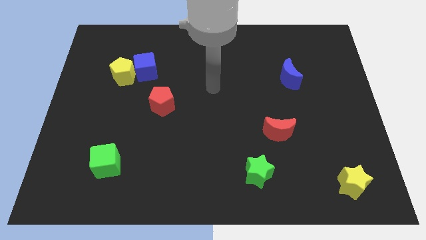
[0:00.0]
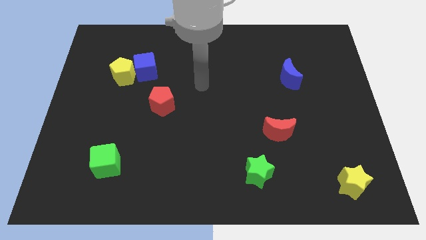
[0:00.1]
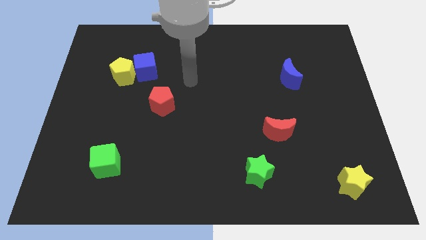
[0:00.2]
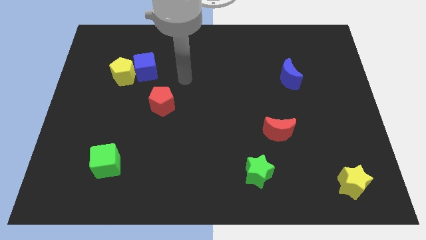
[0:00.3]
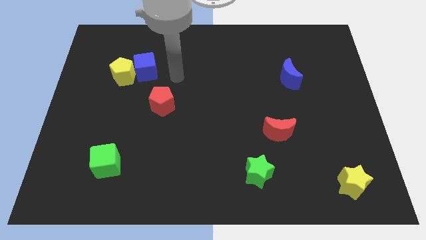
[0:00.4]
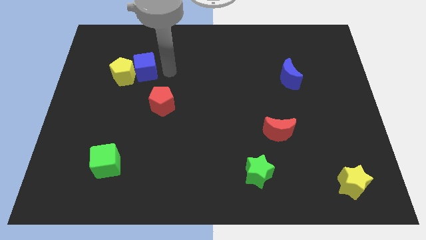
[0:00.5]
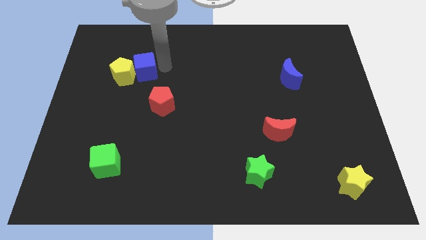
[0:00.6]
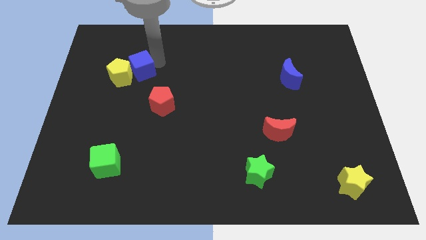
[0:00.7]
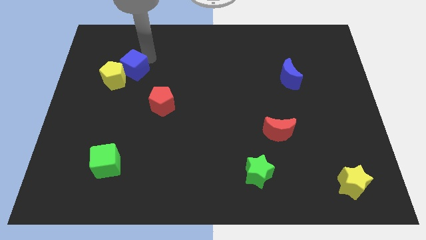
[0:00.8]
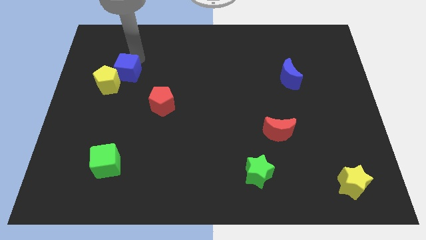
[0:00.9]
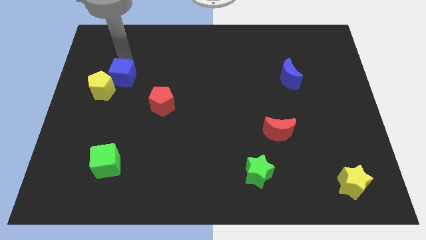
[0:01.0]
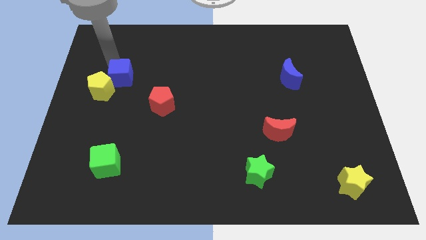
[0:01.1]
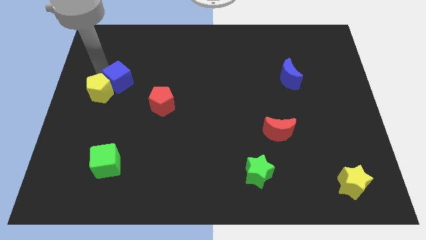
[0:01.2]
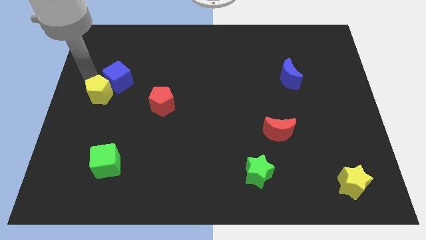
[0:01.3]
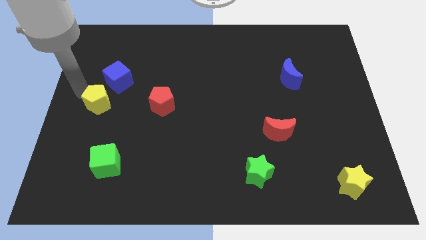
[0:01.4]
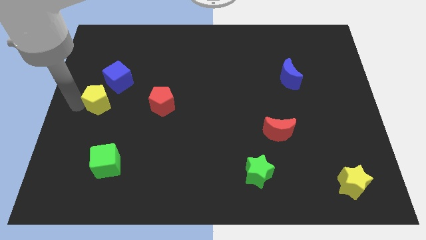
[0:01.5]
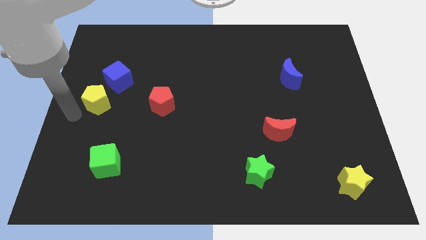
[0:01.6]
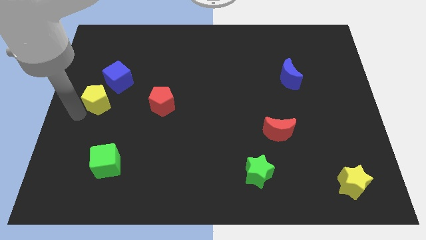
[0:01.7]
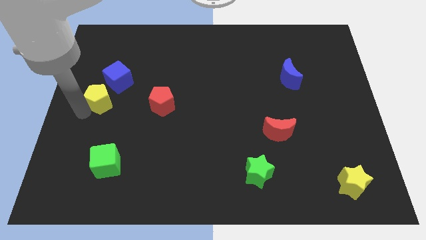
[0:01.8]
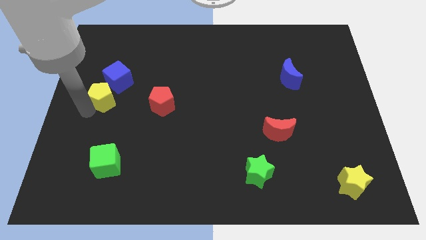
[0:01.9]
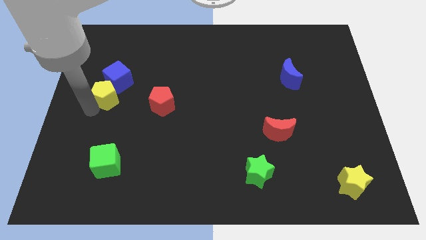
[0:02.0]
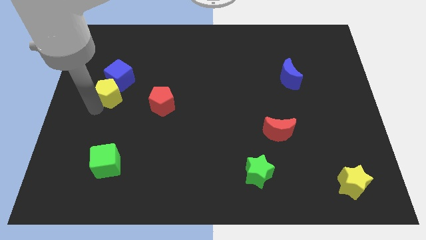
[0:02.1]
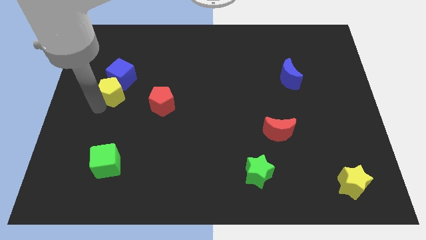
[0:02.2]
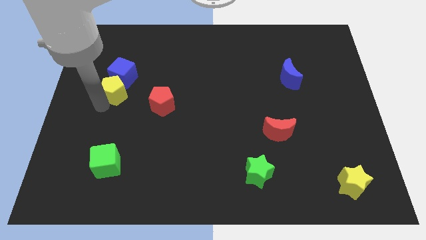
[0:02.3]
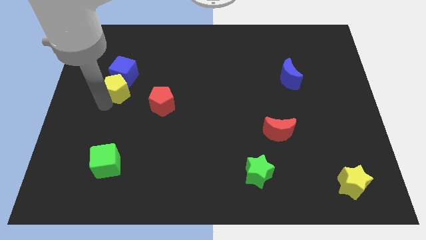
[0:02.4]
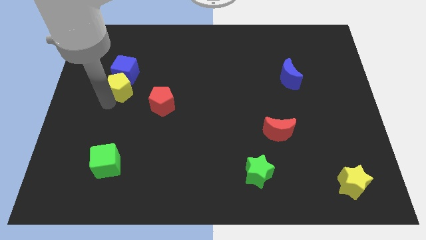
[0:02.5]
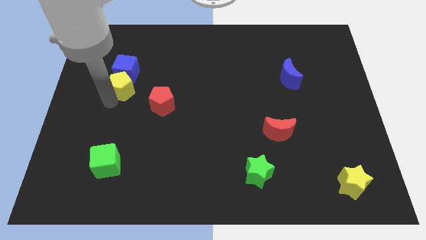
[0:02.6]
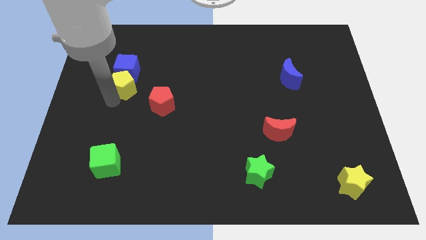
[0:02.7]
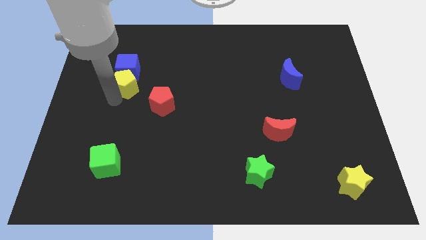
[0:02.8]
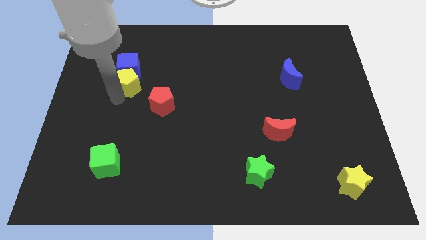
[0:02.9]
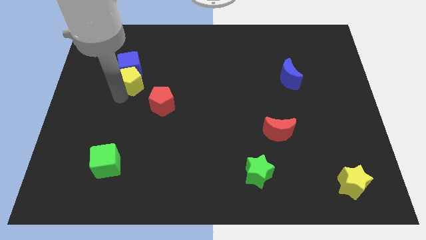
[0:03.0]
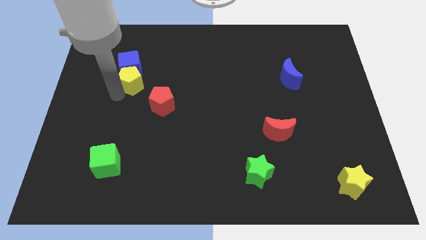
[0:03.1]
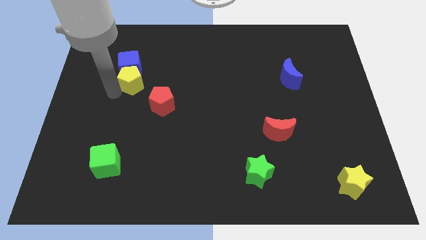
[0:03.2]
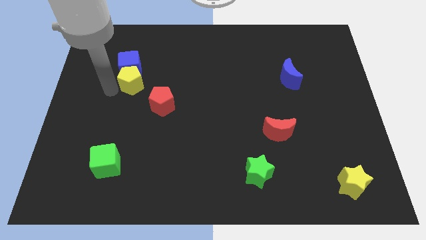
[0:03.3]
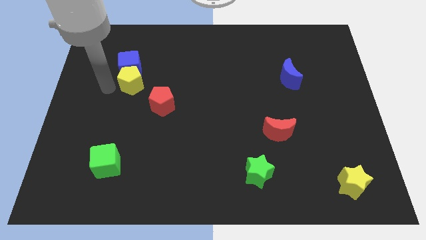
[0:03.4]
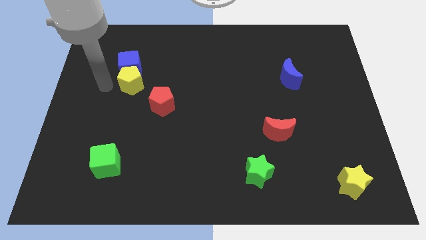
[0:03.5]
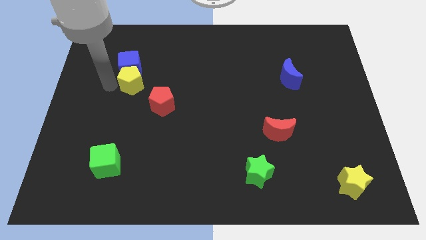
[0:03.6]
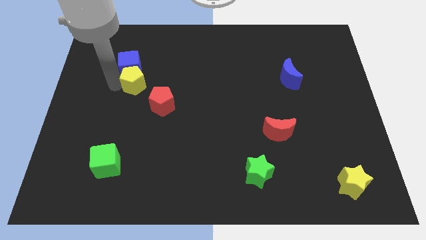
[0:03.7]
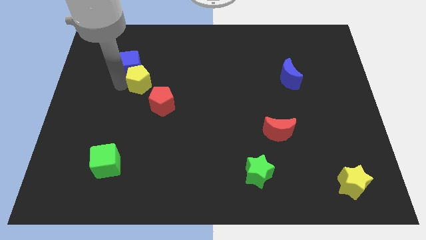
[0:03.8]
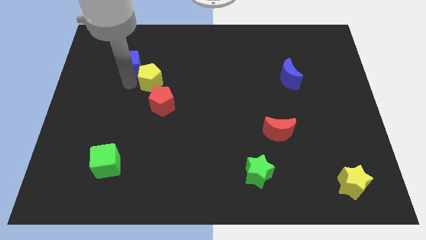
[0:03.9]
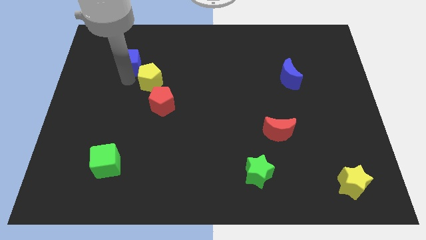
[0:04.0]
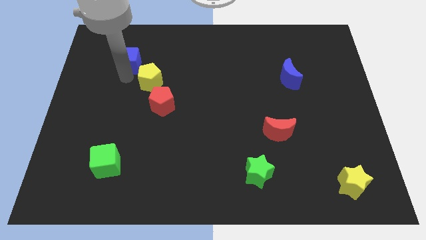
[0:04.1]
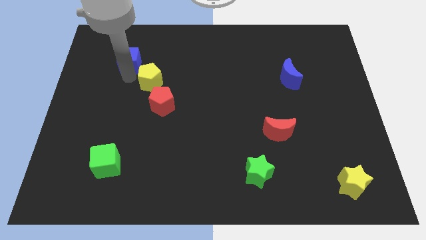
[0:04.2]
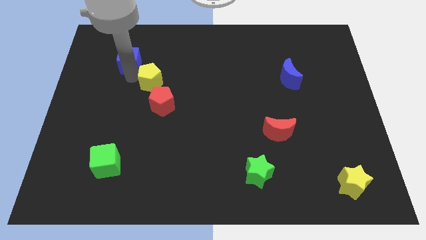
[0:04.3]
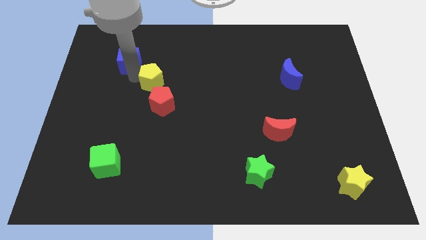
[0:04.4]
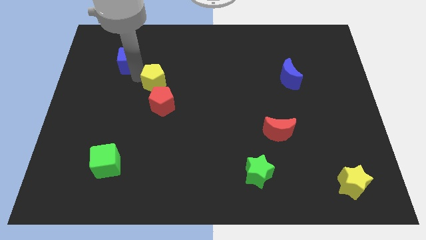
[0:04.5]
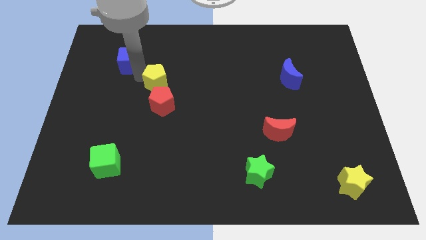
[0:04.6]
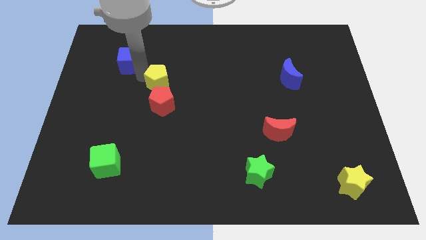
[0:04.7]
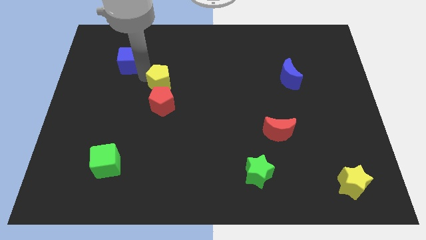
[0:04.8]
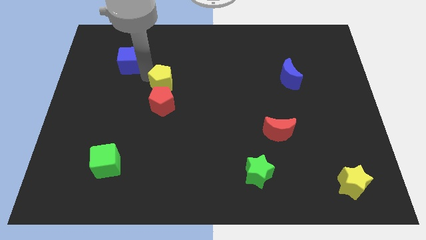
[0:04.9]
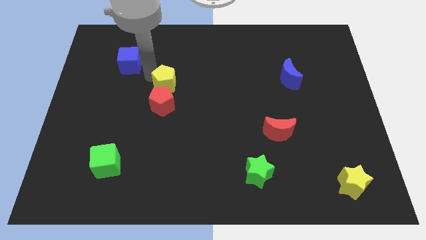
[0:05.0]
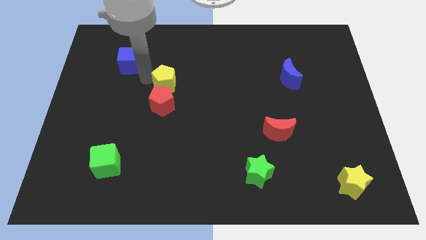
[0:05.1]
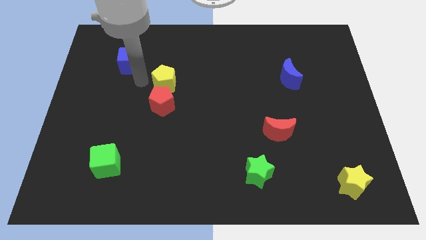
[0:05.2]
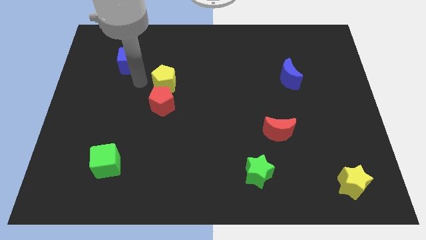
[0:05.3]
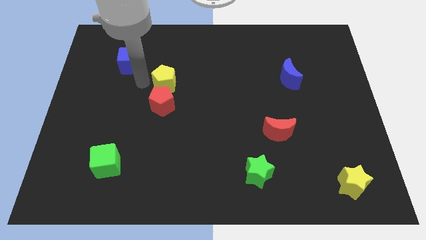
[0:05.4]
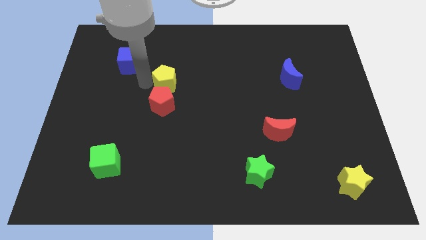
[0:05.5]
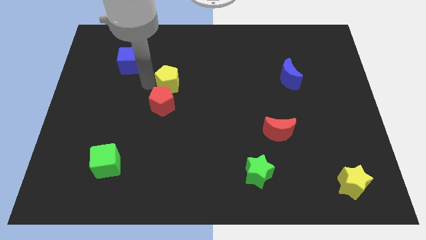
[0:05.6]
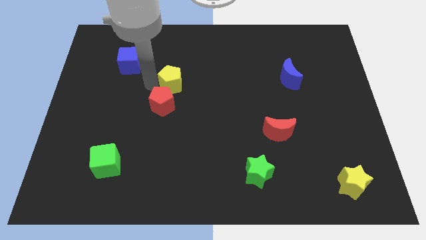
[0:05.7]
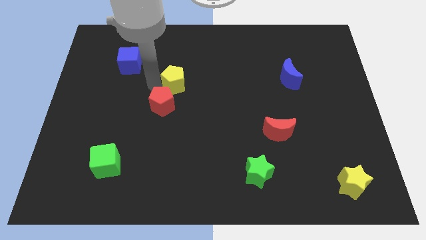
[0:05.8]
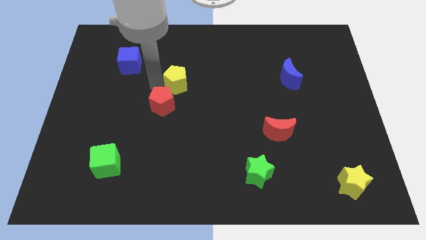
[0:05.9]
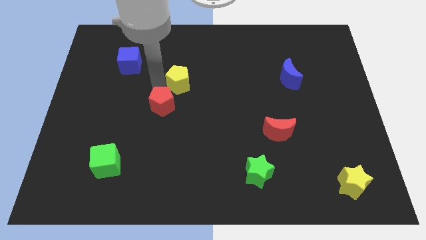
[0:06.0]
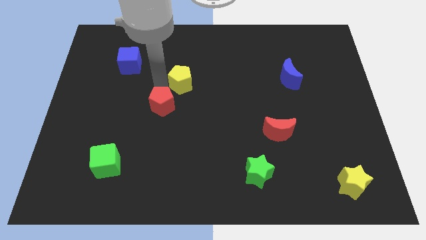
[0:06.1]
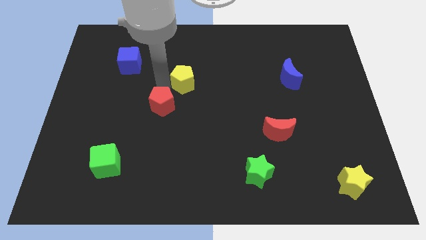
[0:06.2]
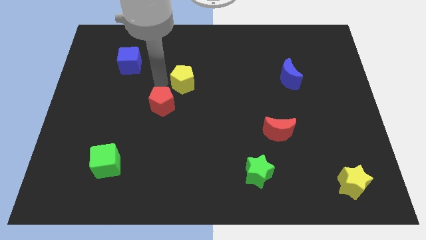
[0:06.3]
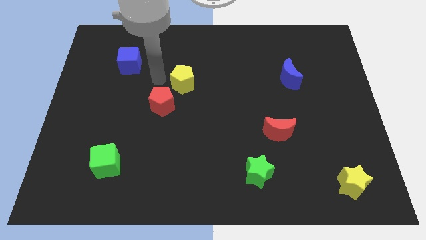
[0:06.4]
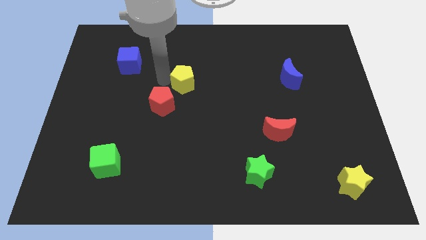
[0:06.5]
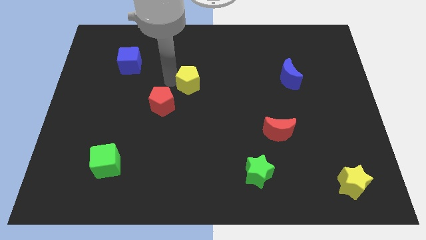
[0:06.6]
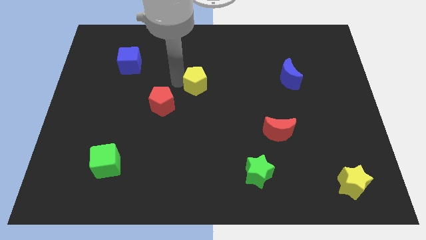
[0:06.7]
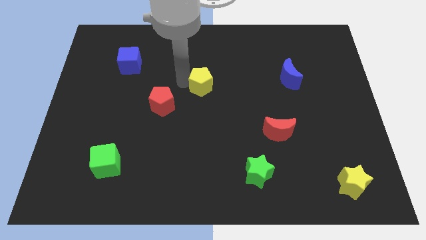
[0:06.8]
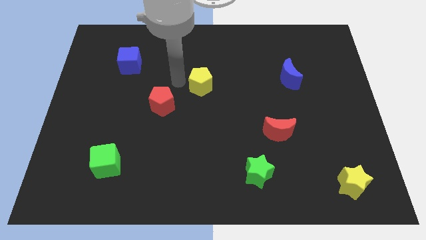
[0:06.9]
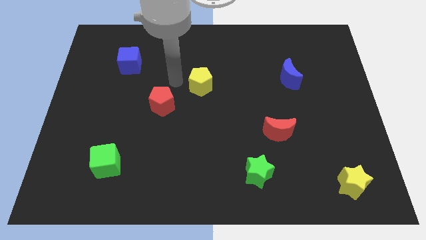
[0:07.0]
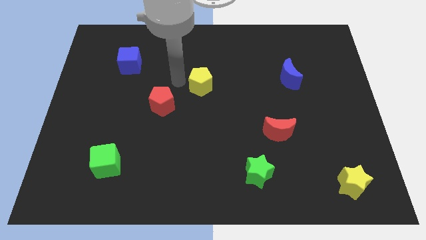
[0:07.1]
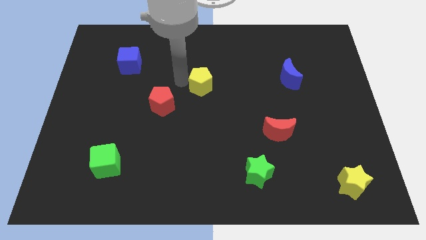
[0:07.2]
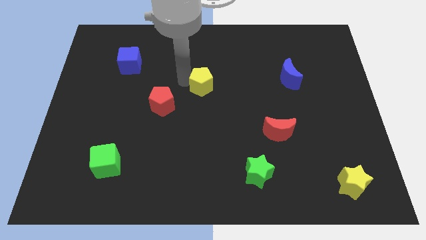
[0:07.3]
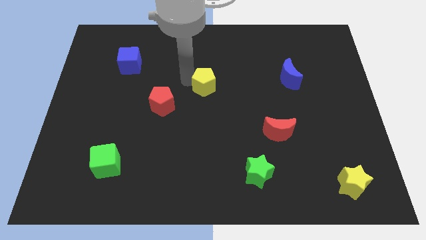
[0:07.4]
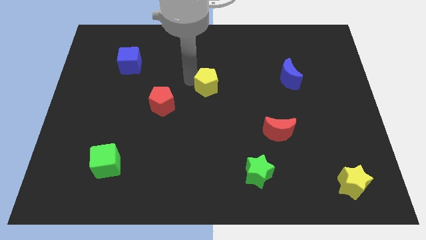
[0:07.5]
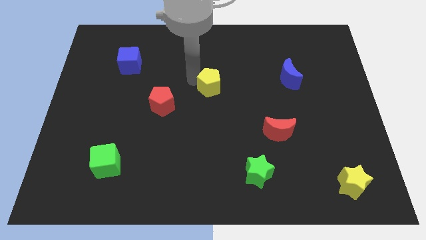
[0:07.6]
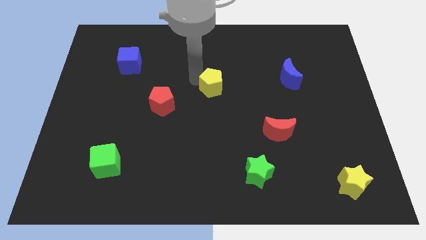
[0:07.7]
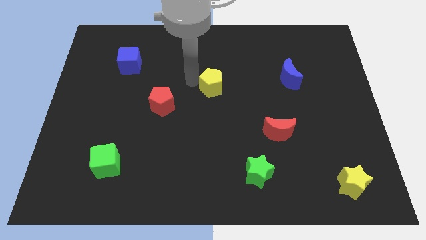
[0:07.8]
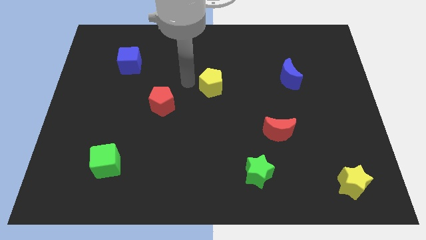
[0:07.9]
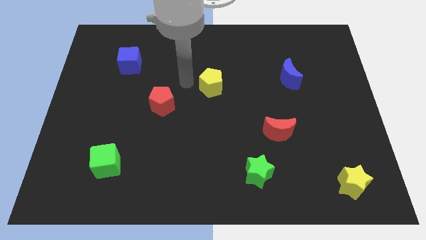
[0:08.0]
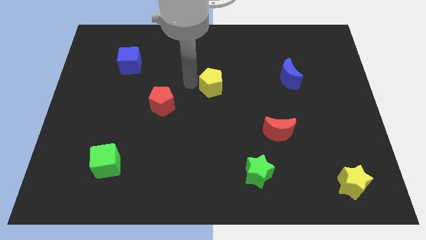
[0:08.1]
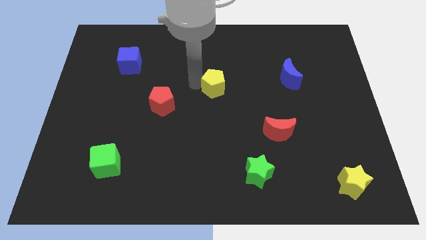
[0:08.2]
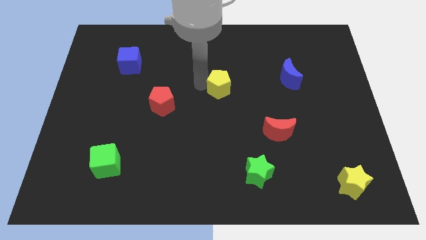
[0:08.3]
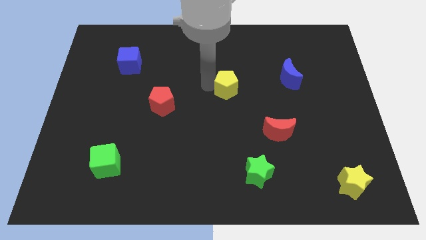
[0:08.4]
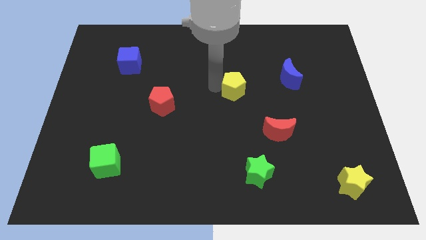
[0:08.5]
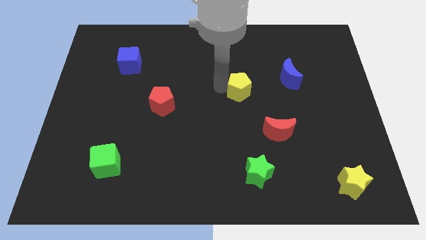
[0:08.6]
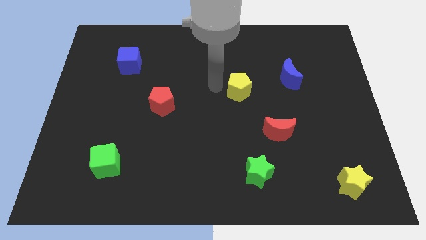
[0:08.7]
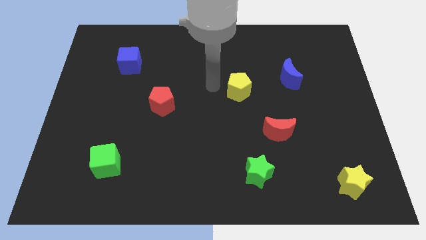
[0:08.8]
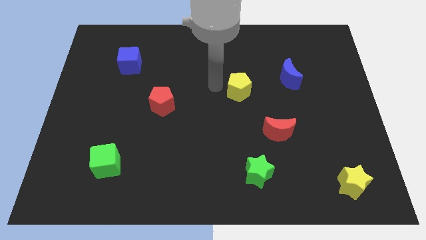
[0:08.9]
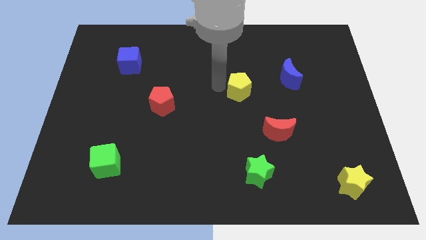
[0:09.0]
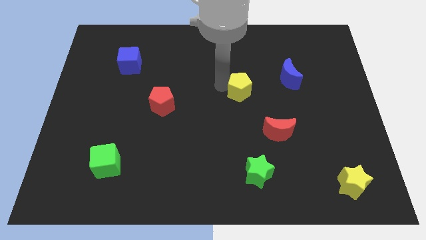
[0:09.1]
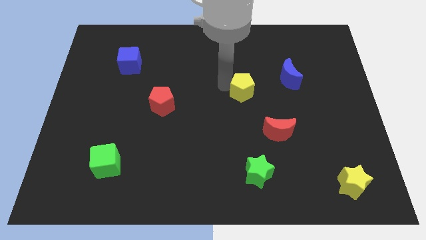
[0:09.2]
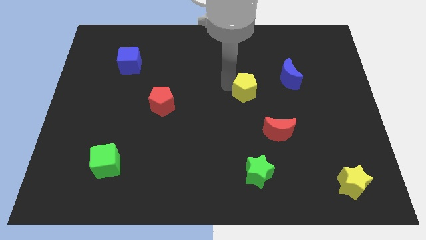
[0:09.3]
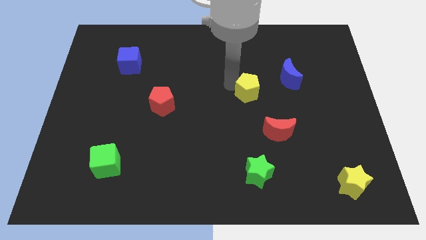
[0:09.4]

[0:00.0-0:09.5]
put the yellow pentagon to the bottom left of the blue moon
